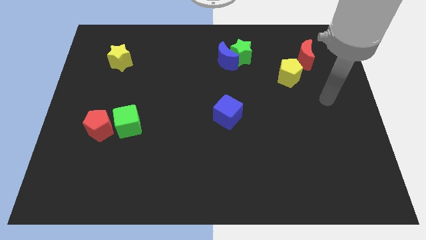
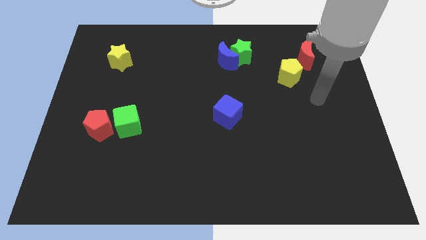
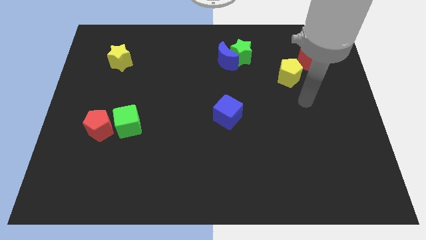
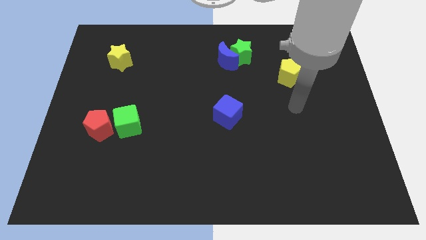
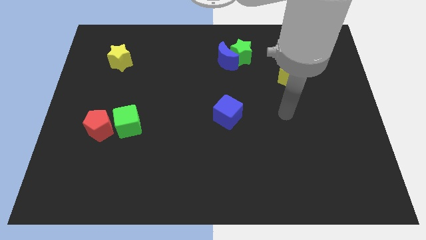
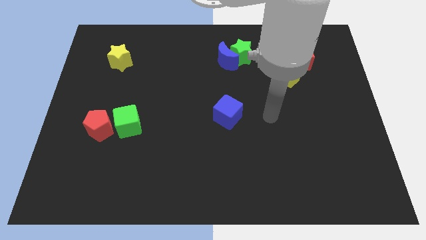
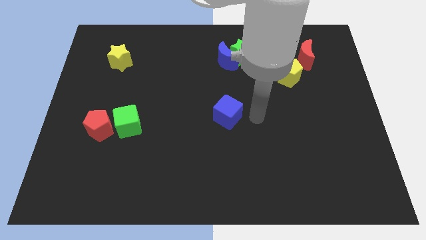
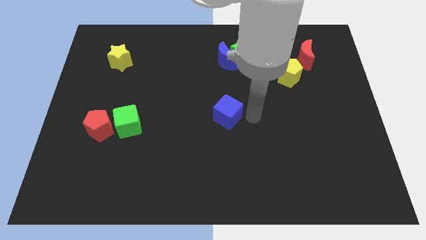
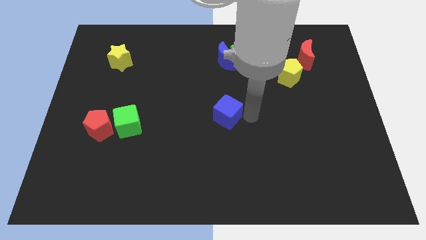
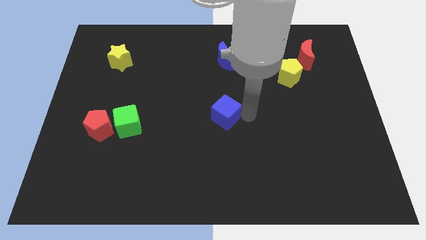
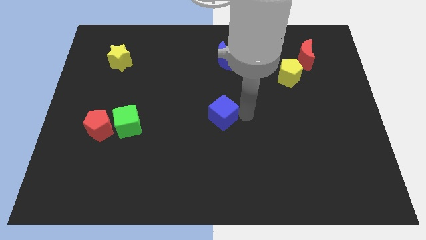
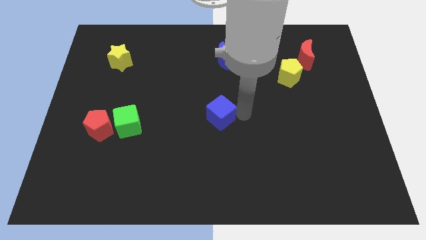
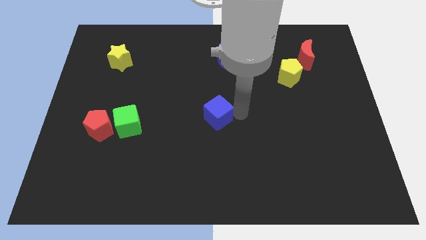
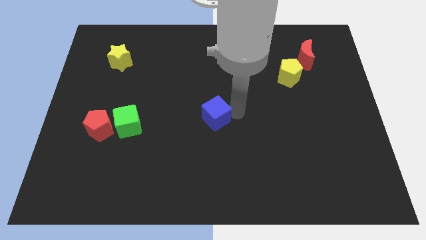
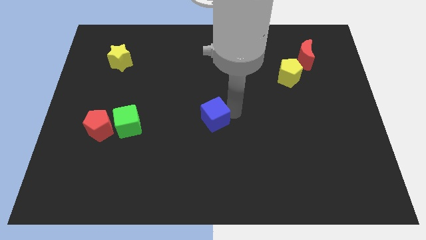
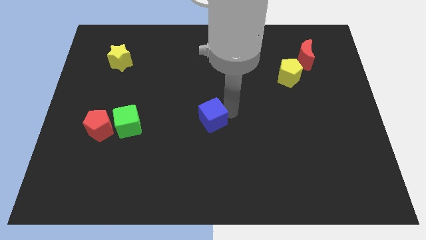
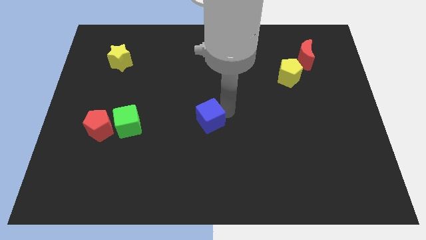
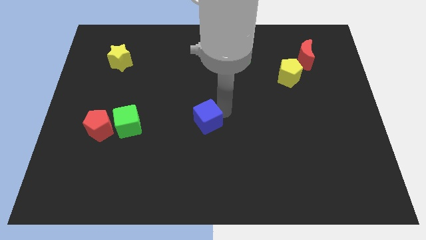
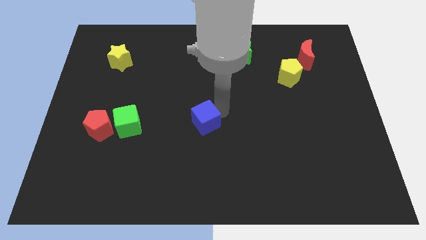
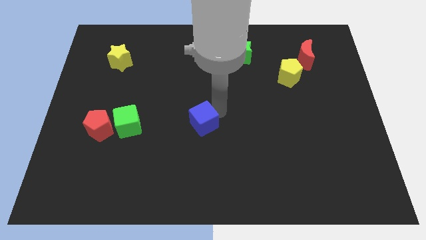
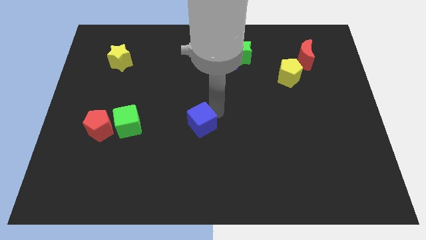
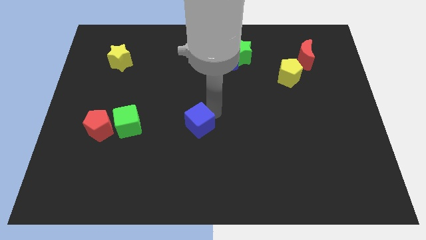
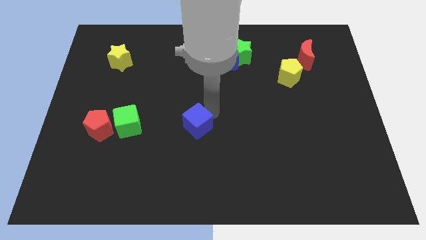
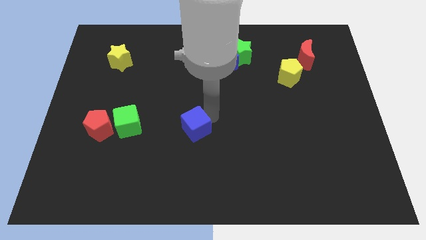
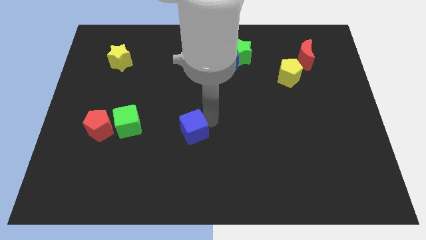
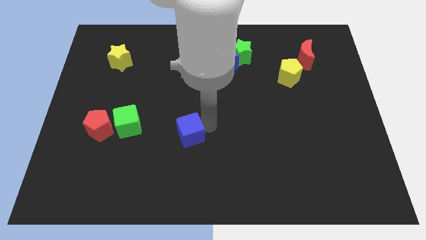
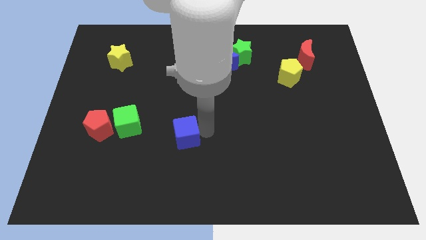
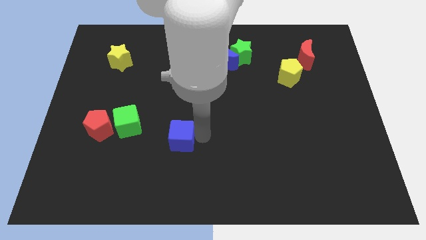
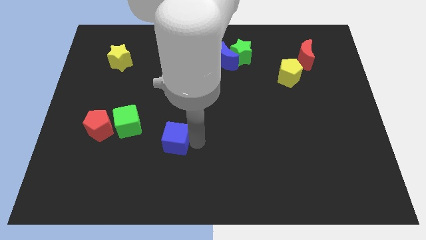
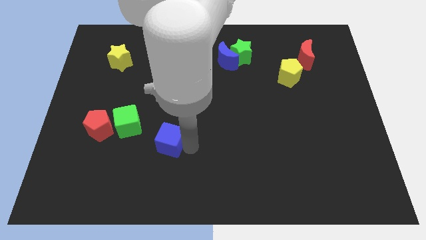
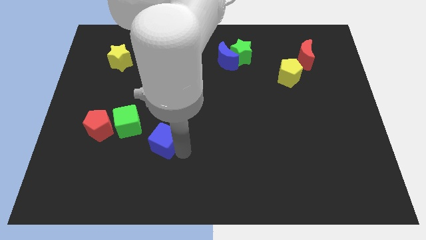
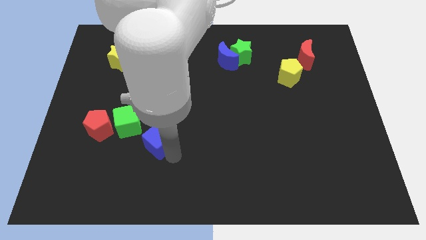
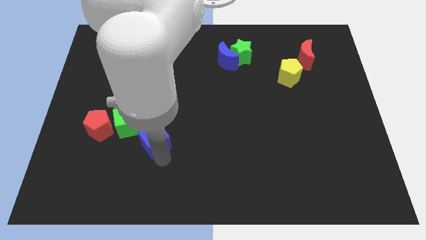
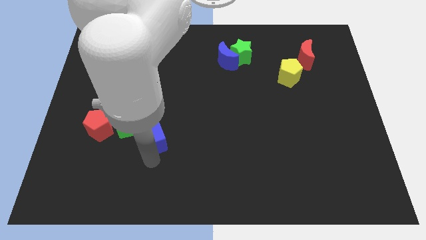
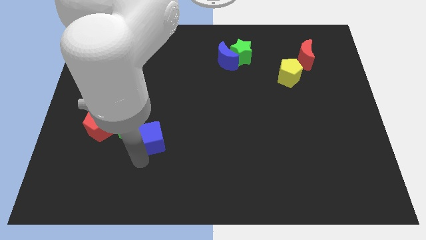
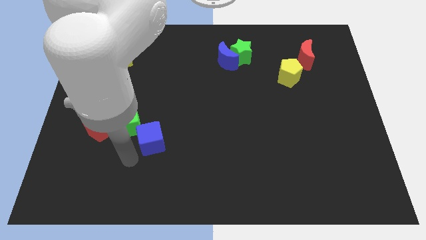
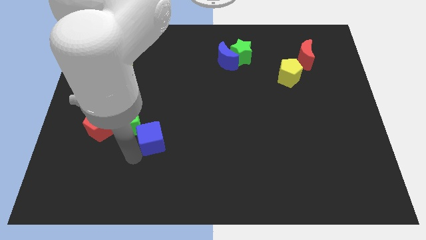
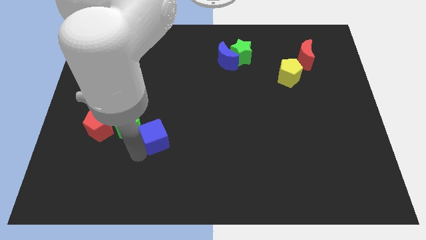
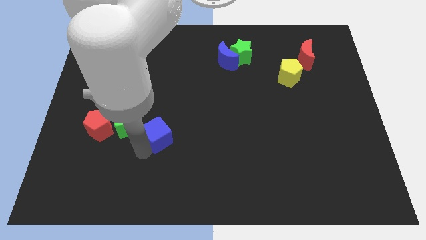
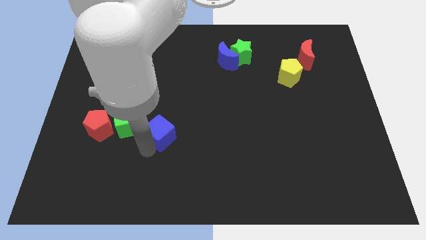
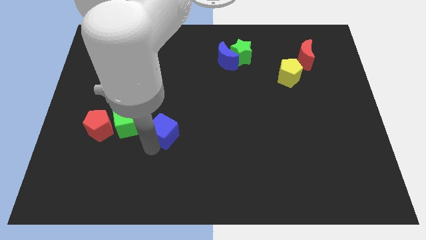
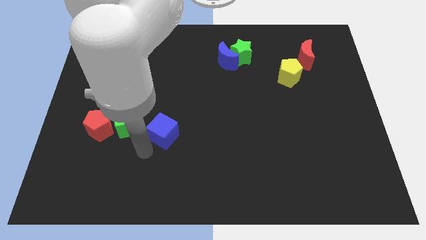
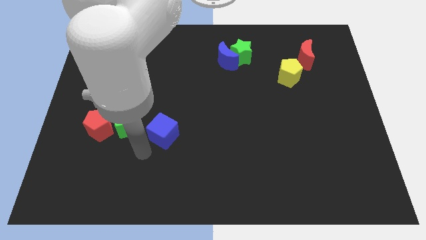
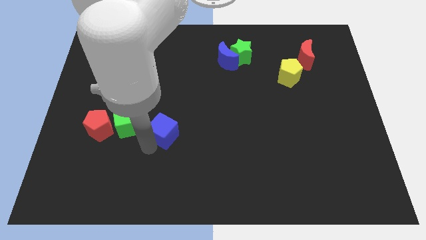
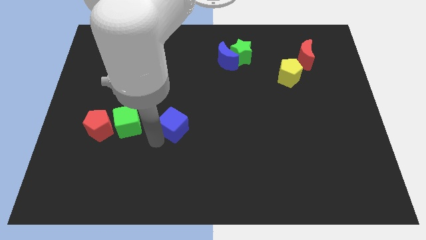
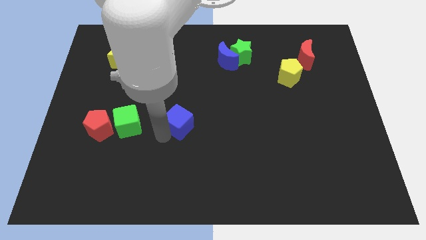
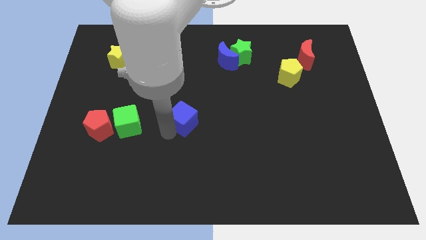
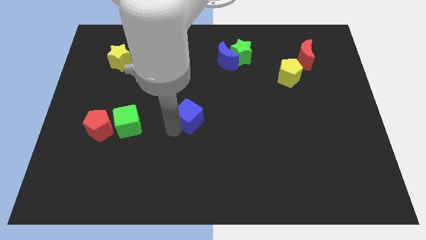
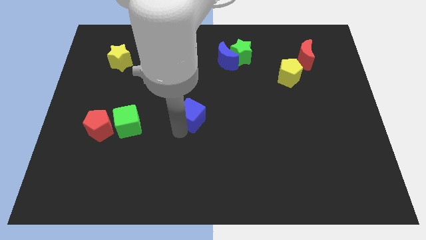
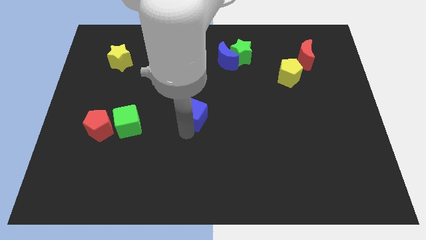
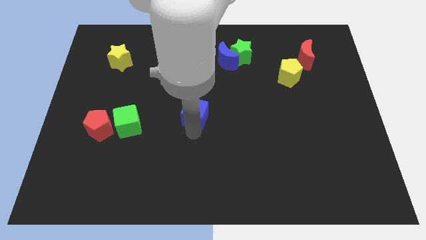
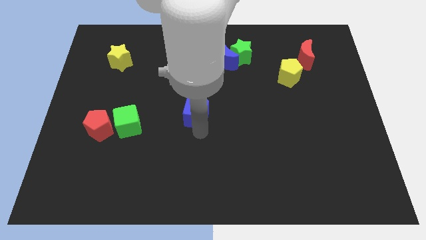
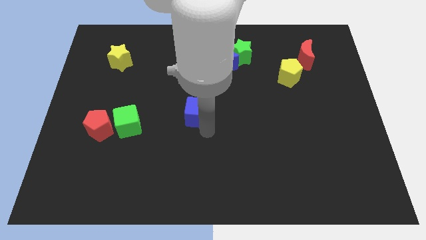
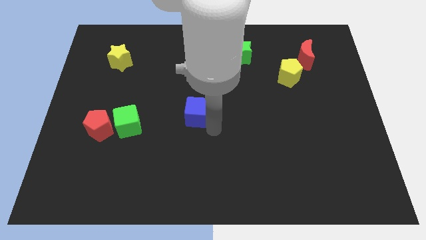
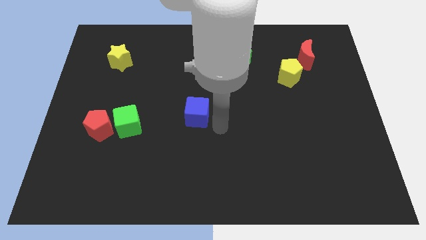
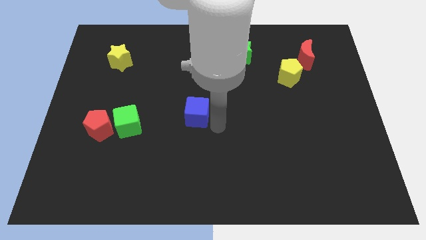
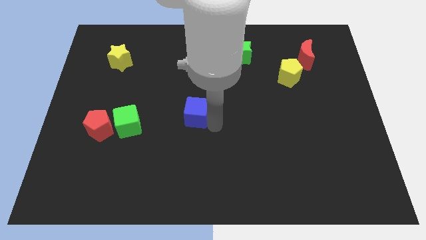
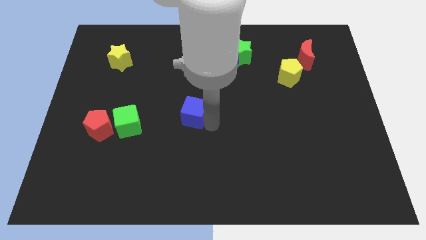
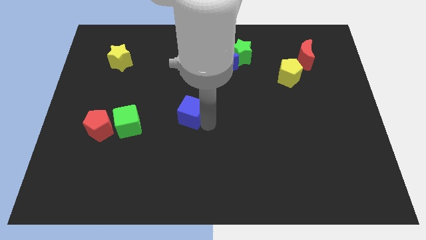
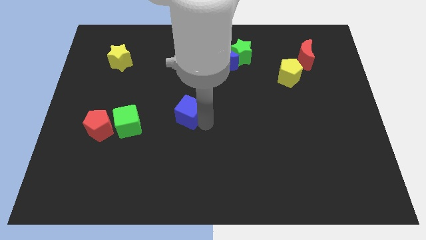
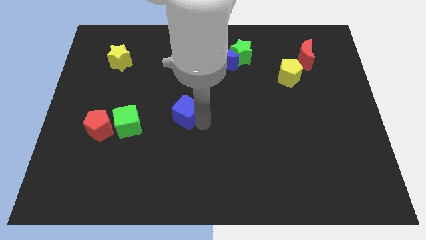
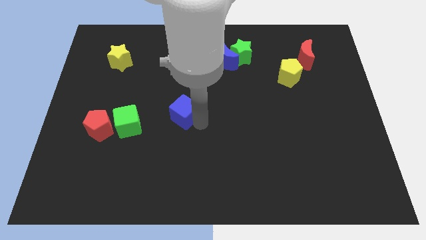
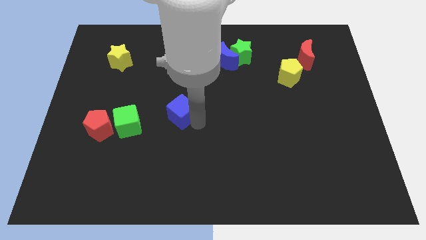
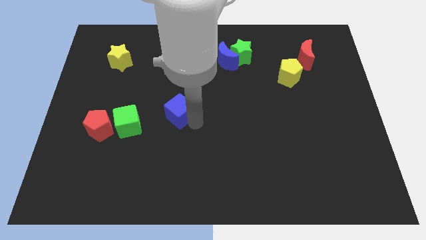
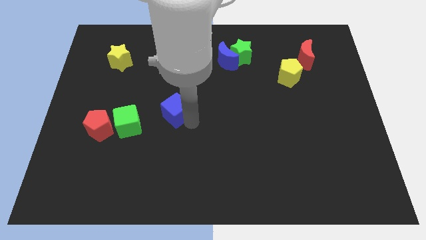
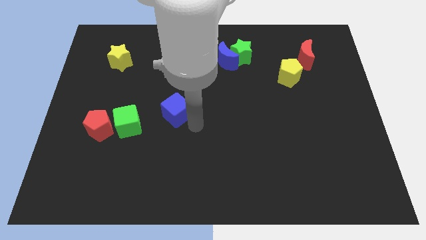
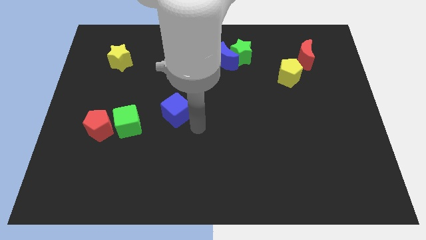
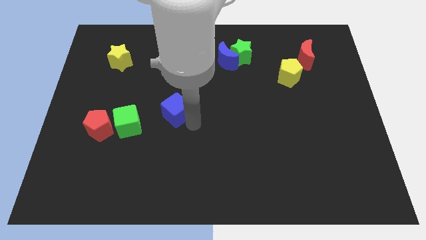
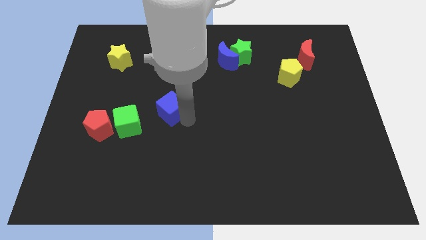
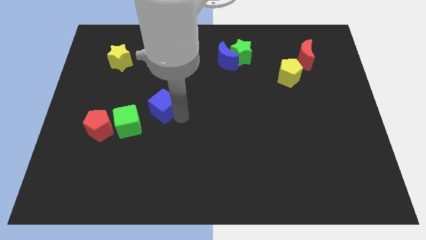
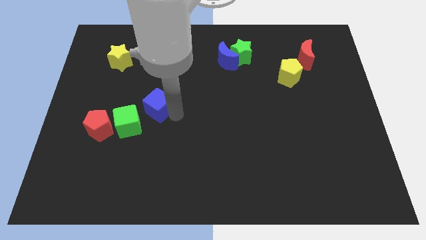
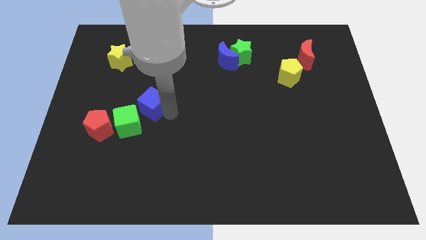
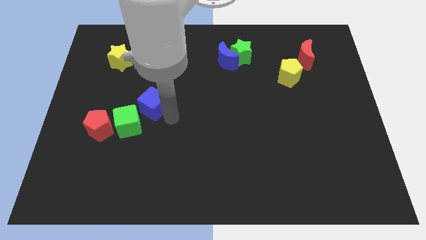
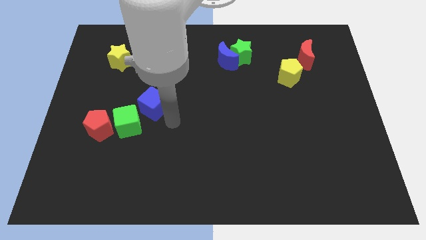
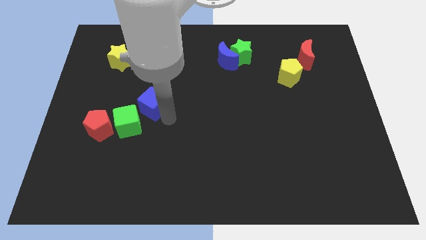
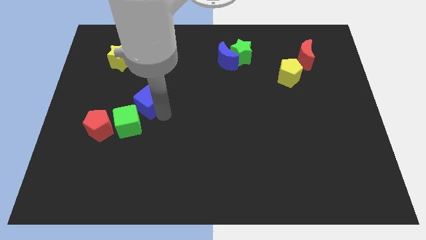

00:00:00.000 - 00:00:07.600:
move the blue cube to the top of the green cube
